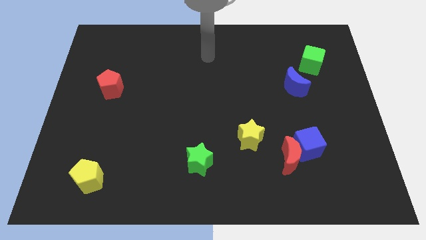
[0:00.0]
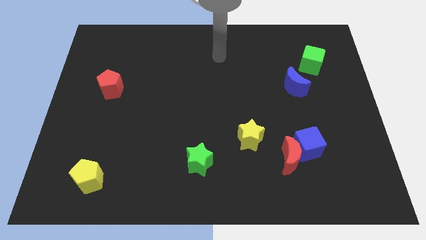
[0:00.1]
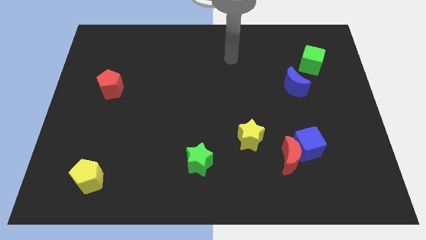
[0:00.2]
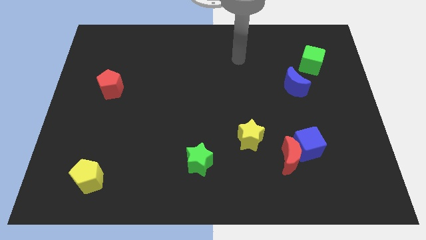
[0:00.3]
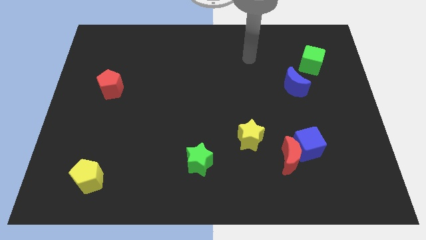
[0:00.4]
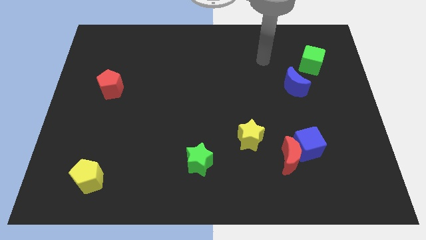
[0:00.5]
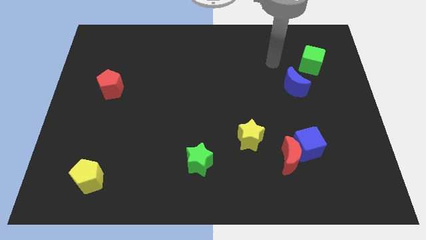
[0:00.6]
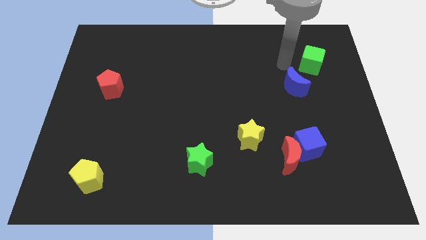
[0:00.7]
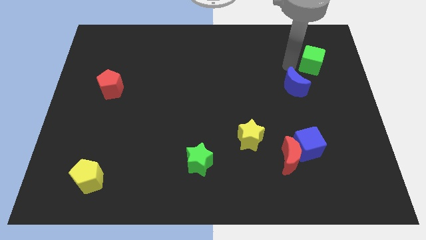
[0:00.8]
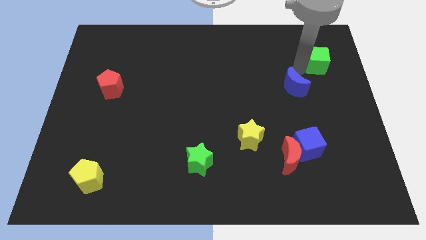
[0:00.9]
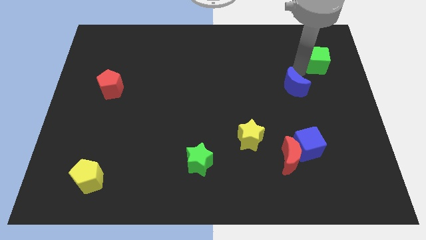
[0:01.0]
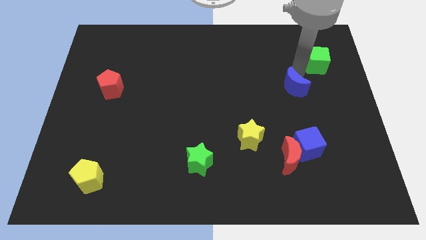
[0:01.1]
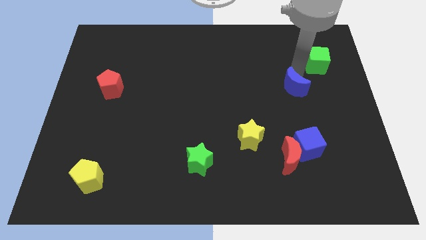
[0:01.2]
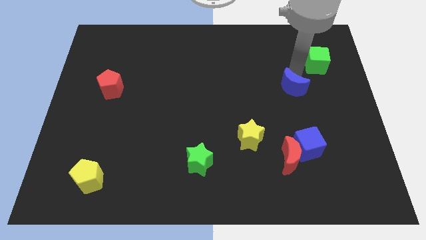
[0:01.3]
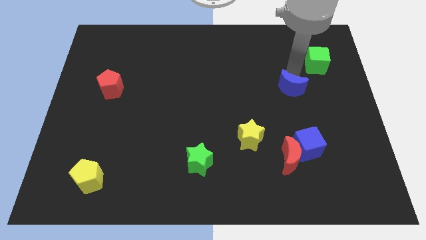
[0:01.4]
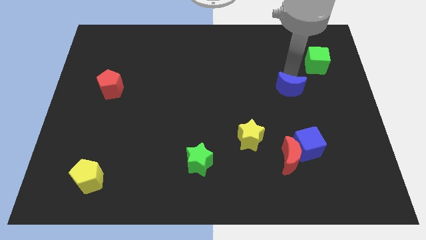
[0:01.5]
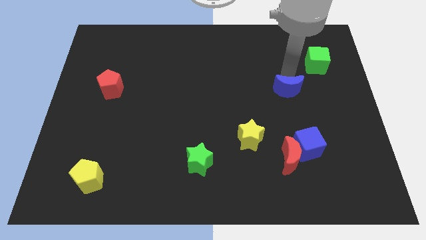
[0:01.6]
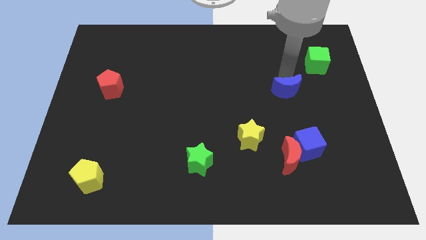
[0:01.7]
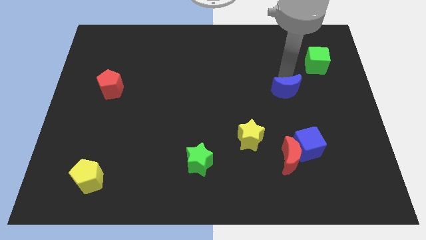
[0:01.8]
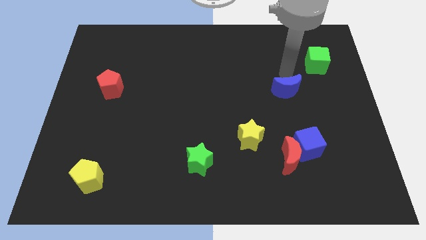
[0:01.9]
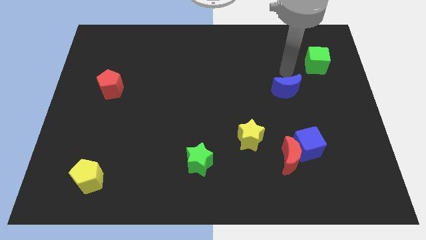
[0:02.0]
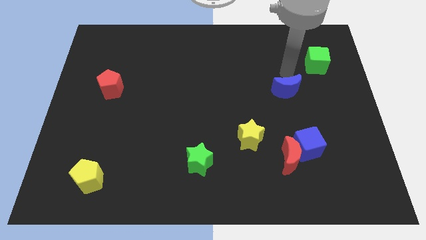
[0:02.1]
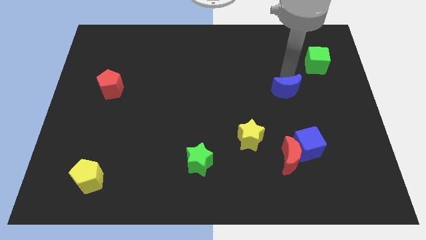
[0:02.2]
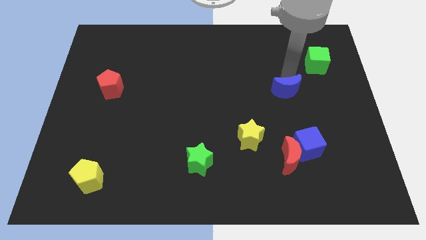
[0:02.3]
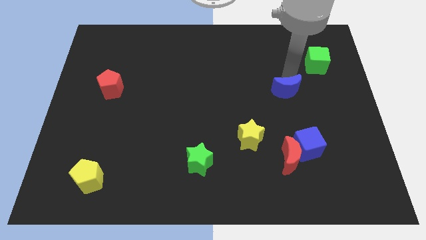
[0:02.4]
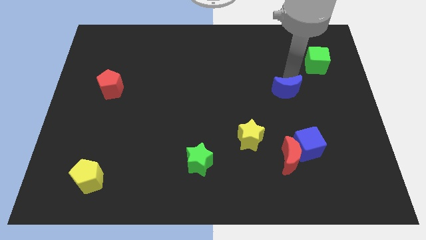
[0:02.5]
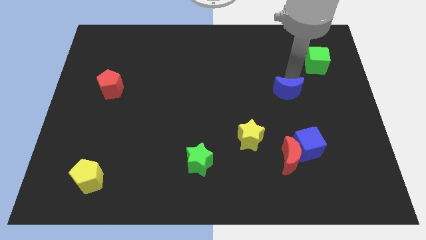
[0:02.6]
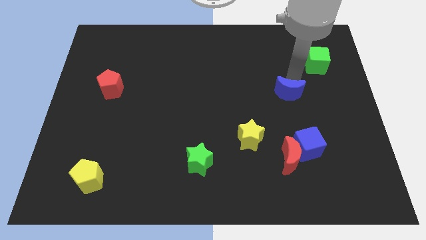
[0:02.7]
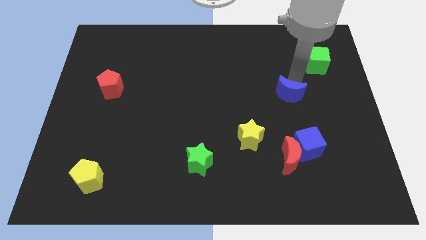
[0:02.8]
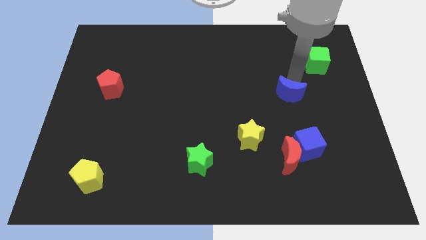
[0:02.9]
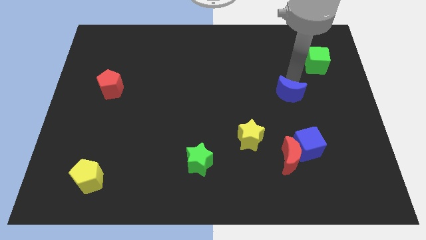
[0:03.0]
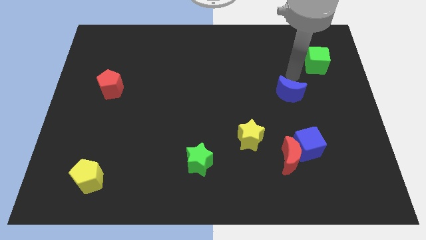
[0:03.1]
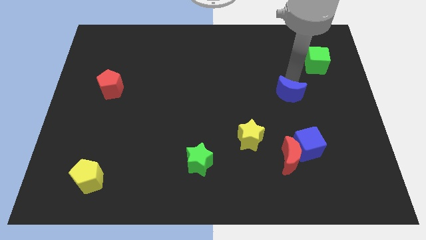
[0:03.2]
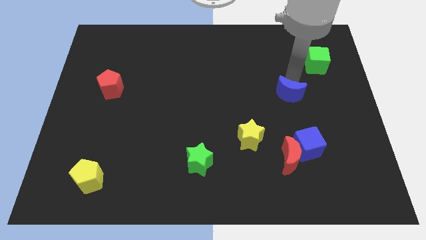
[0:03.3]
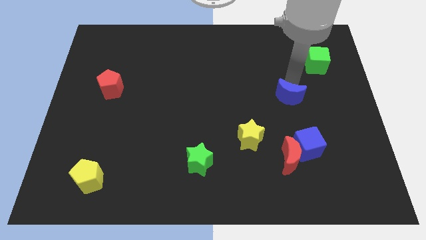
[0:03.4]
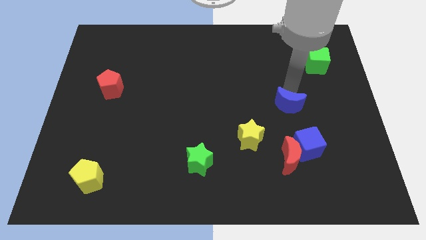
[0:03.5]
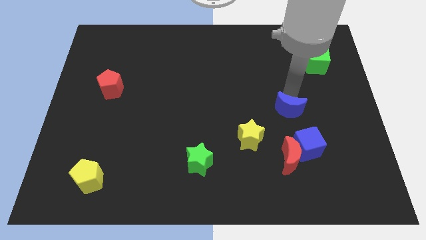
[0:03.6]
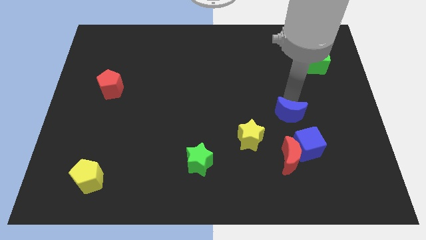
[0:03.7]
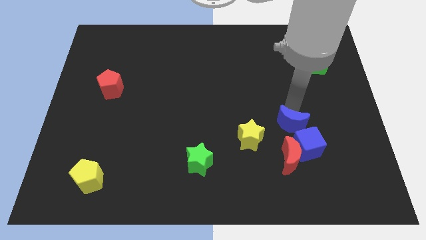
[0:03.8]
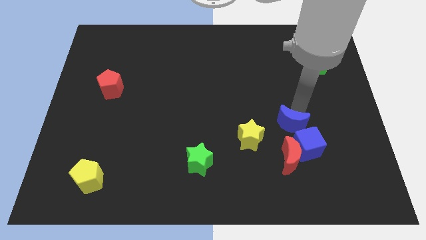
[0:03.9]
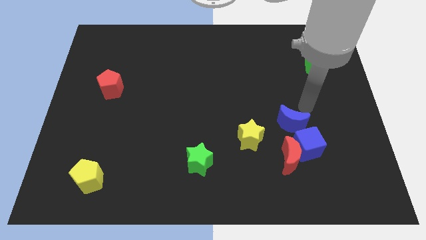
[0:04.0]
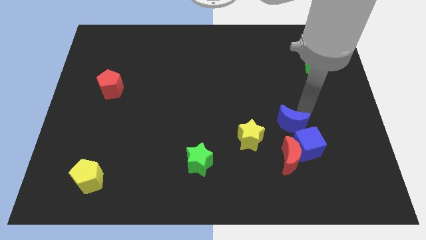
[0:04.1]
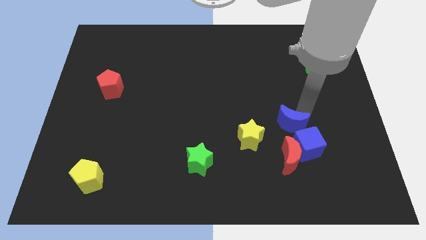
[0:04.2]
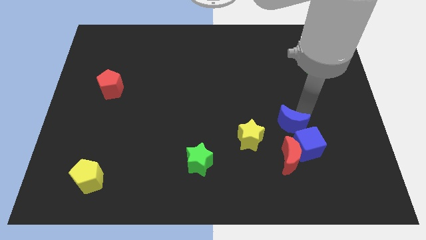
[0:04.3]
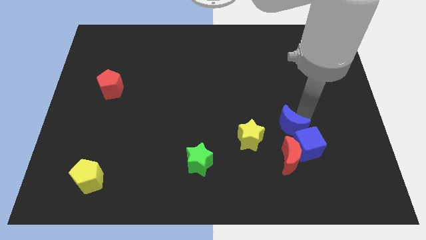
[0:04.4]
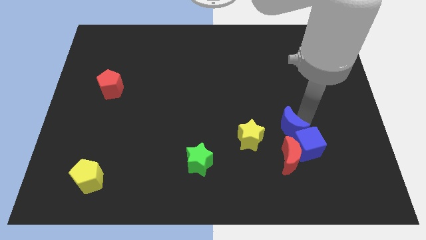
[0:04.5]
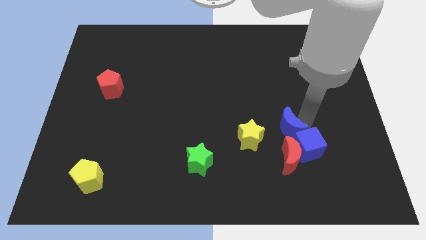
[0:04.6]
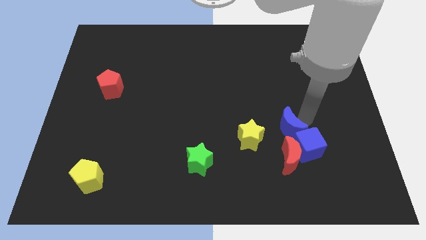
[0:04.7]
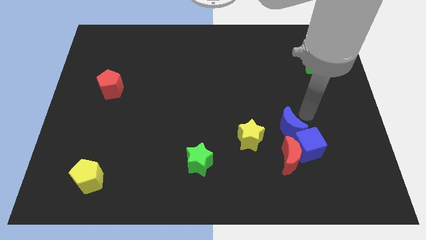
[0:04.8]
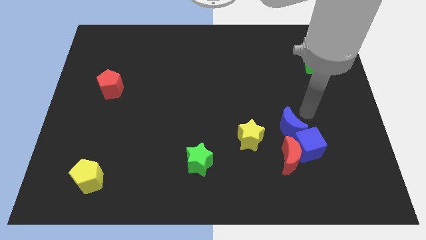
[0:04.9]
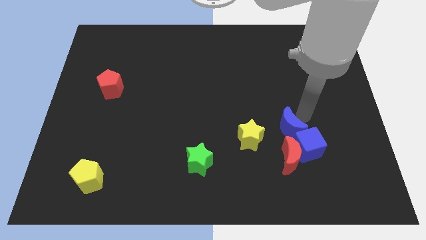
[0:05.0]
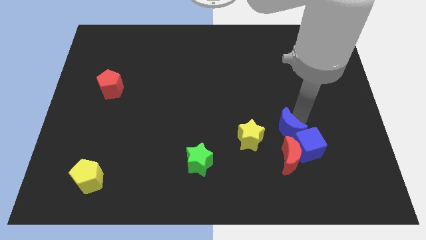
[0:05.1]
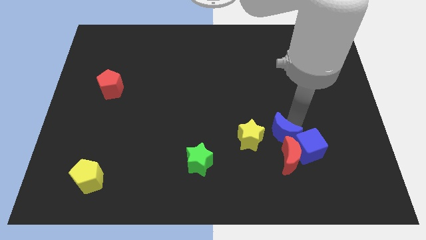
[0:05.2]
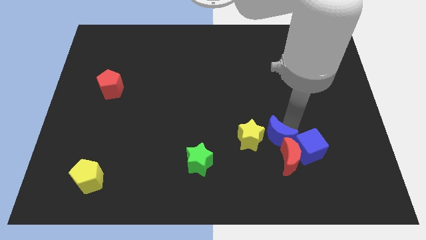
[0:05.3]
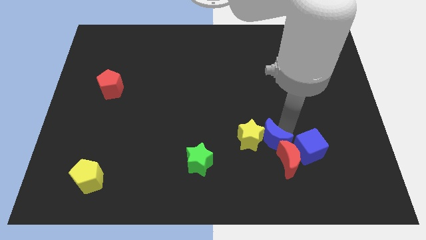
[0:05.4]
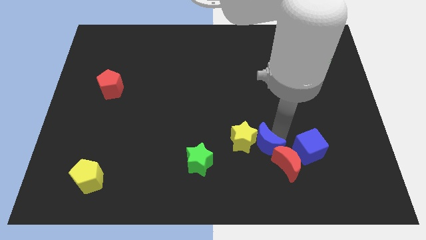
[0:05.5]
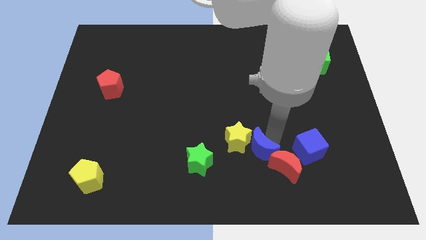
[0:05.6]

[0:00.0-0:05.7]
push the blue moon to the right of the green star

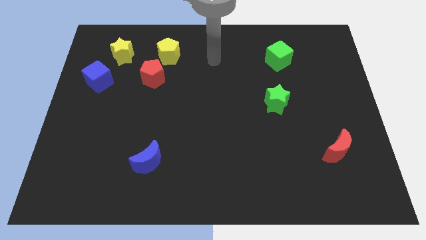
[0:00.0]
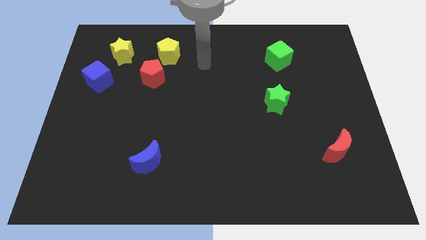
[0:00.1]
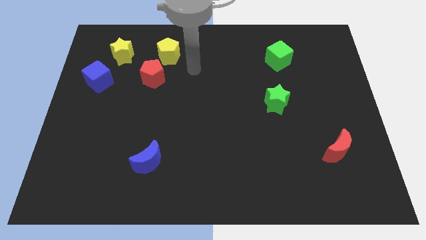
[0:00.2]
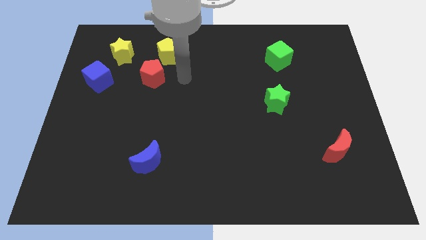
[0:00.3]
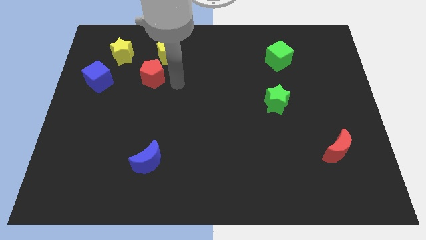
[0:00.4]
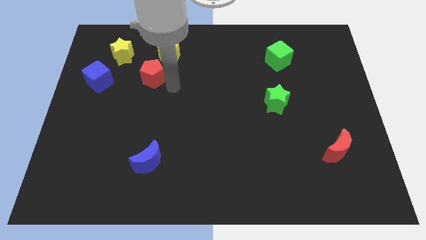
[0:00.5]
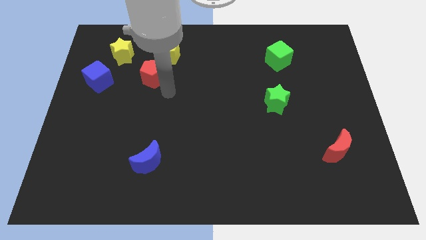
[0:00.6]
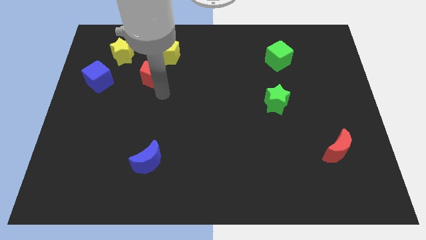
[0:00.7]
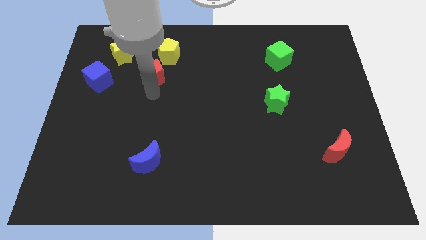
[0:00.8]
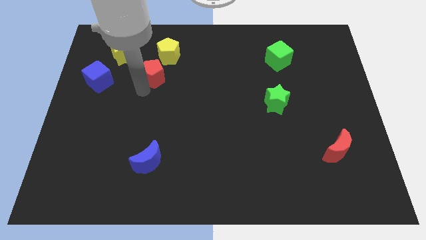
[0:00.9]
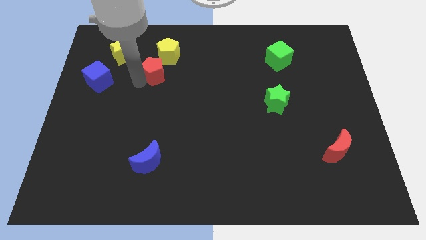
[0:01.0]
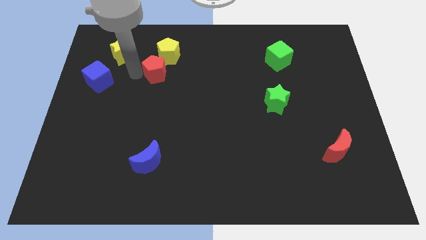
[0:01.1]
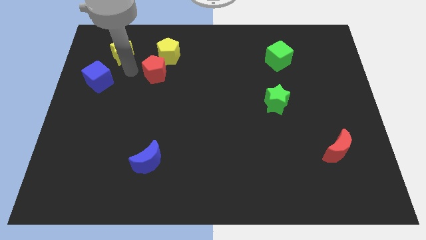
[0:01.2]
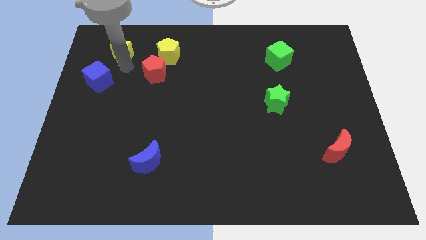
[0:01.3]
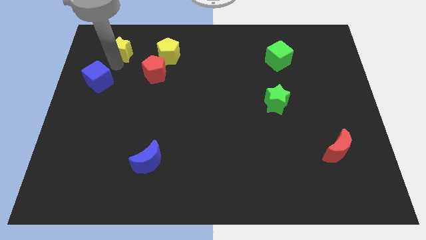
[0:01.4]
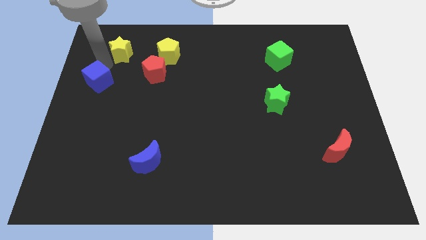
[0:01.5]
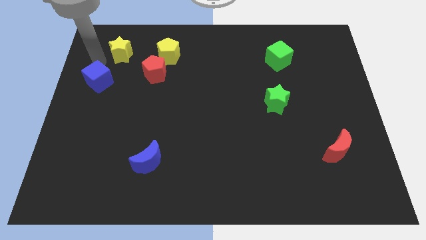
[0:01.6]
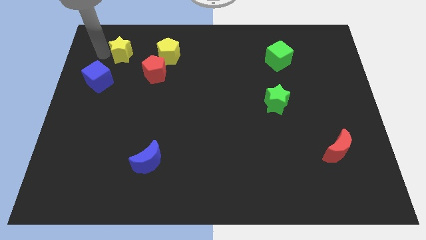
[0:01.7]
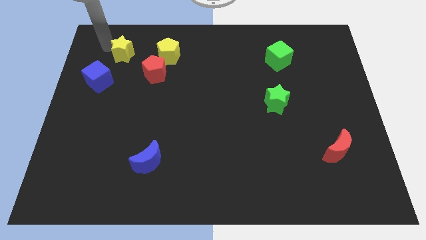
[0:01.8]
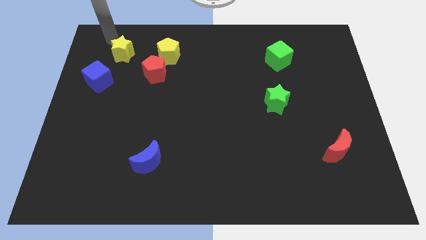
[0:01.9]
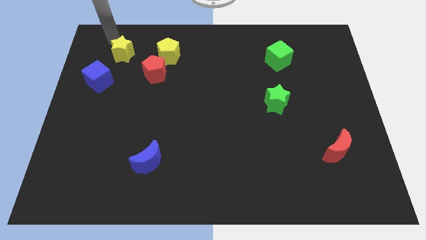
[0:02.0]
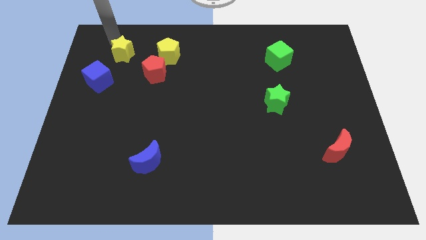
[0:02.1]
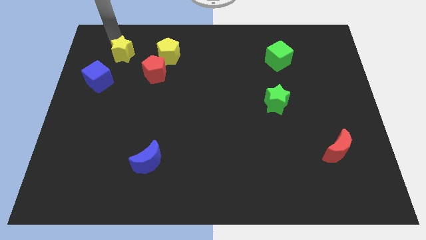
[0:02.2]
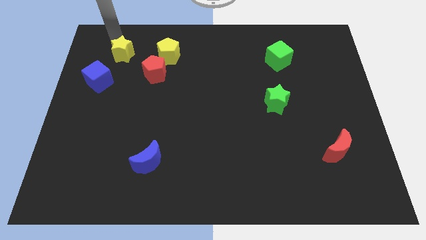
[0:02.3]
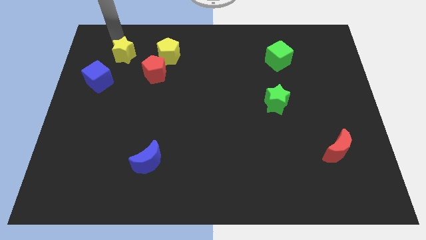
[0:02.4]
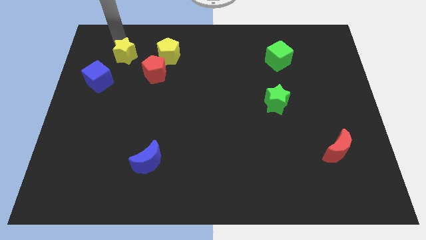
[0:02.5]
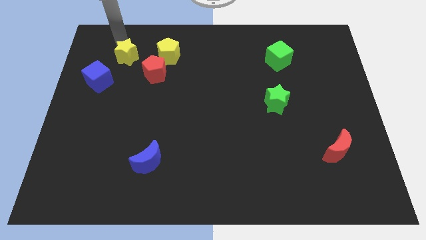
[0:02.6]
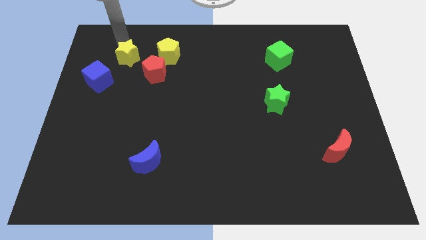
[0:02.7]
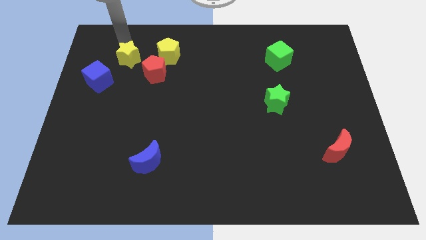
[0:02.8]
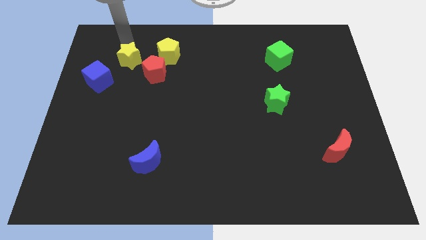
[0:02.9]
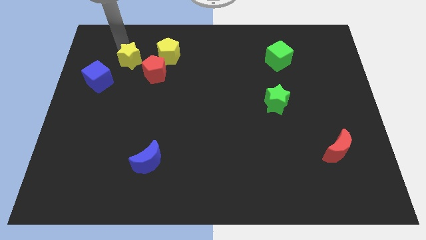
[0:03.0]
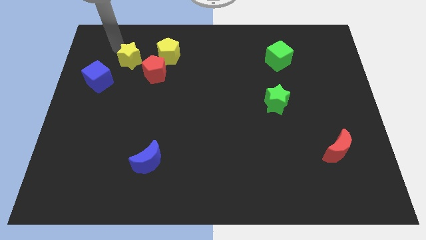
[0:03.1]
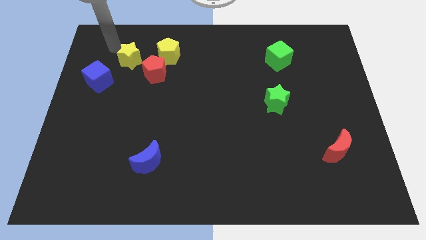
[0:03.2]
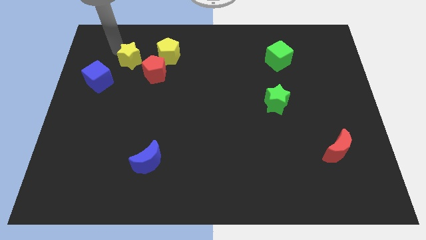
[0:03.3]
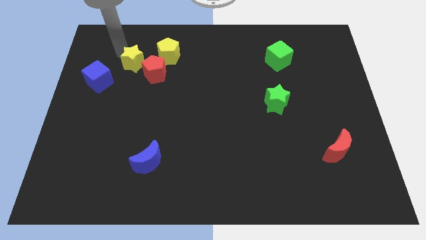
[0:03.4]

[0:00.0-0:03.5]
move the yellow star to the bottom left of the yellow pentagon
